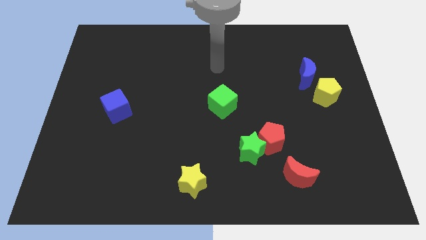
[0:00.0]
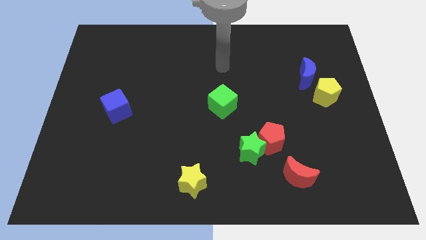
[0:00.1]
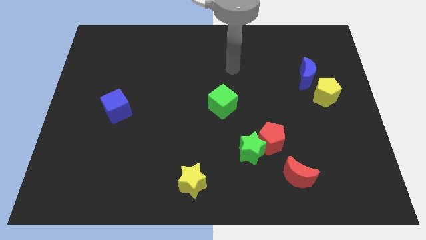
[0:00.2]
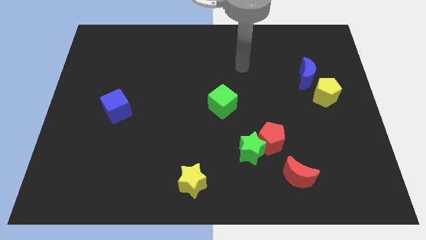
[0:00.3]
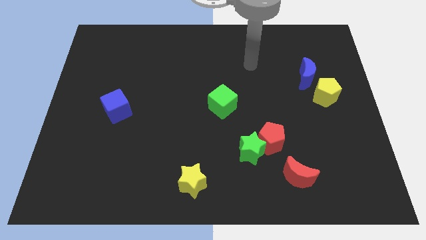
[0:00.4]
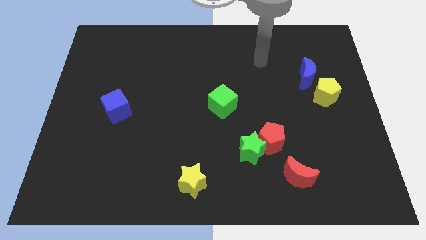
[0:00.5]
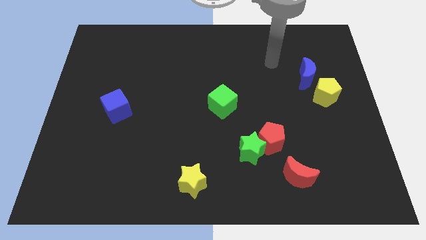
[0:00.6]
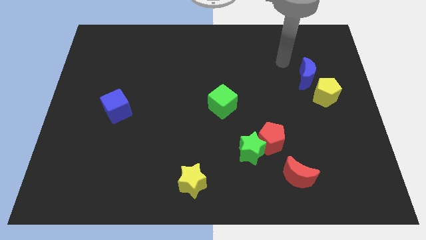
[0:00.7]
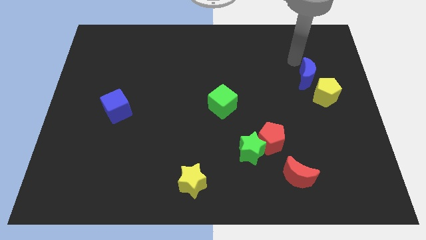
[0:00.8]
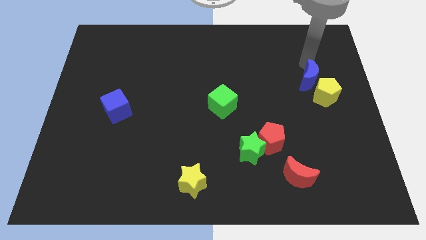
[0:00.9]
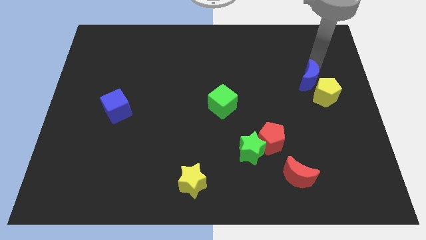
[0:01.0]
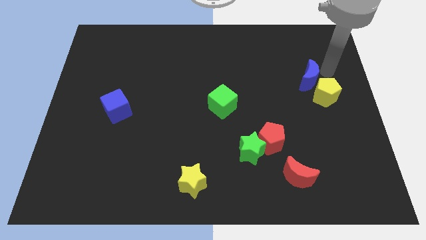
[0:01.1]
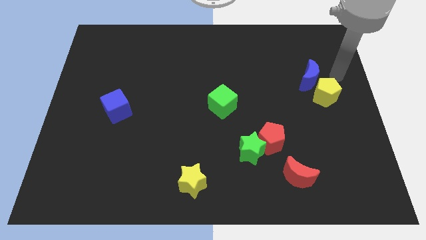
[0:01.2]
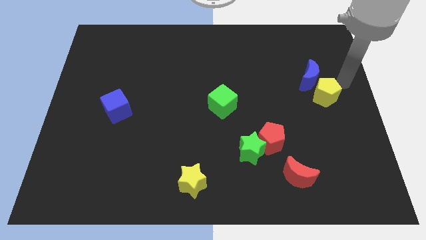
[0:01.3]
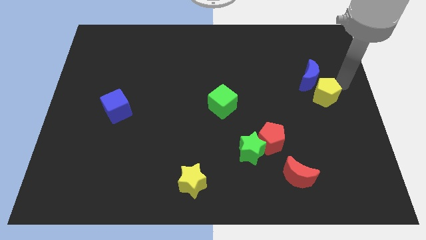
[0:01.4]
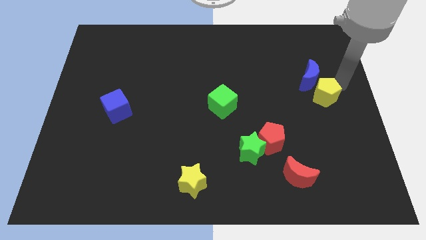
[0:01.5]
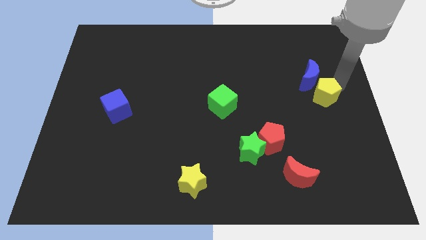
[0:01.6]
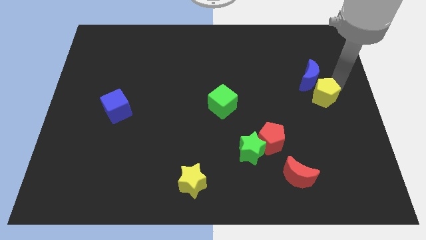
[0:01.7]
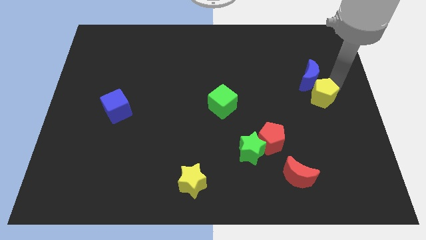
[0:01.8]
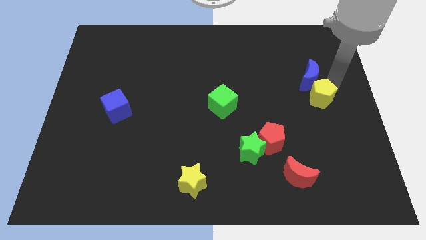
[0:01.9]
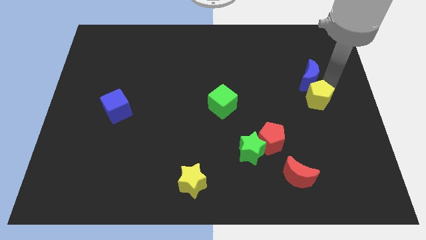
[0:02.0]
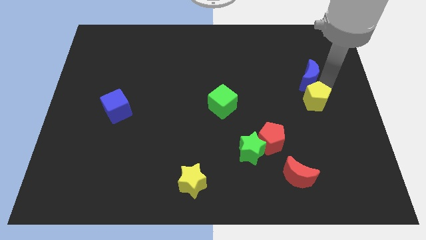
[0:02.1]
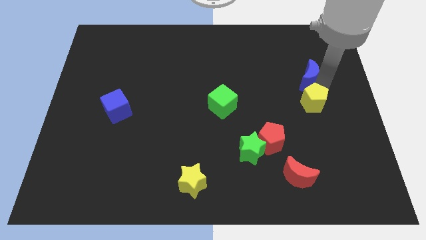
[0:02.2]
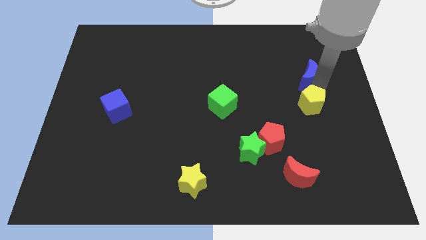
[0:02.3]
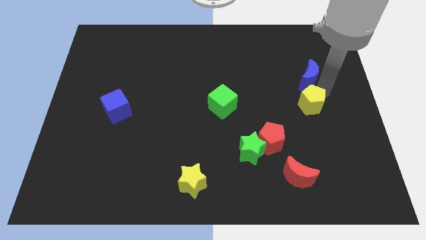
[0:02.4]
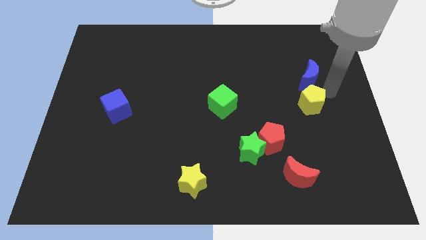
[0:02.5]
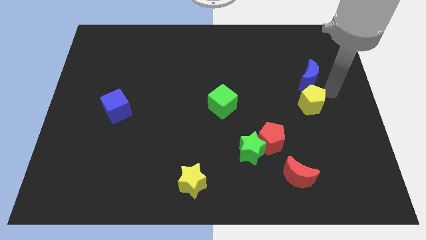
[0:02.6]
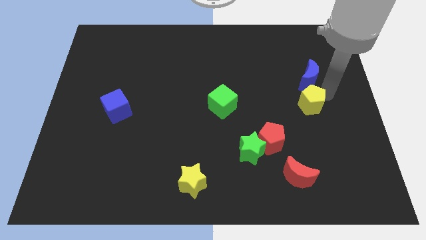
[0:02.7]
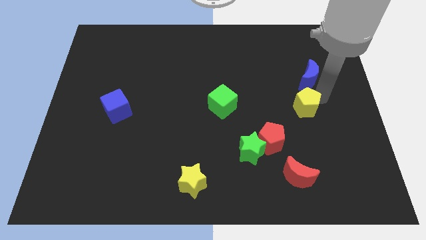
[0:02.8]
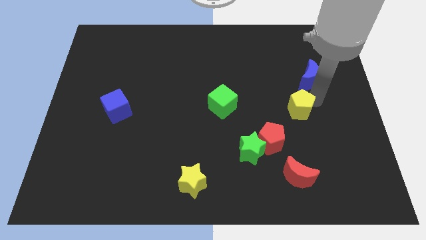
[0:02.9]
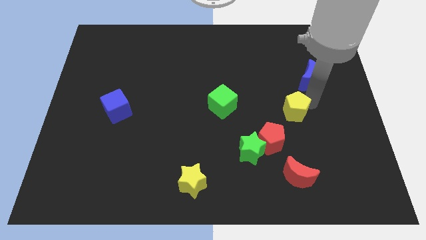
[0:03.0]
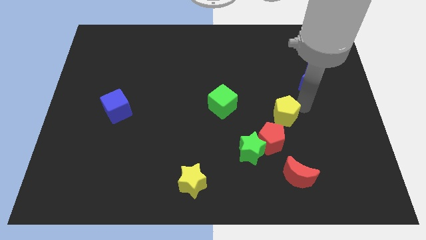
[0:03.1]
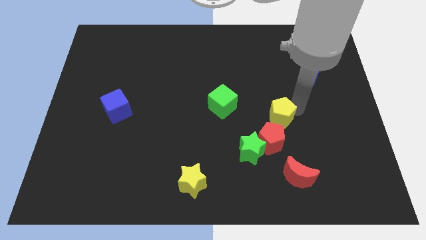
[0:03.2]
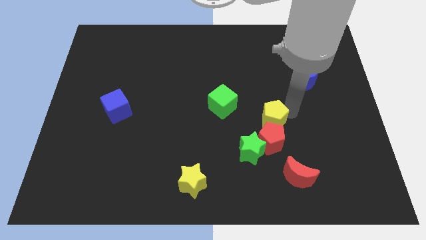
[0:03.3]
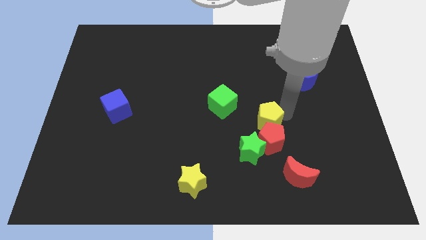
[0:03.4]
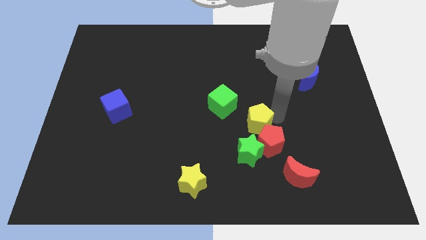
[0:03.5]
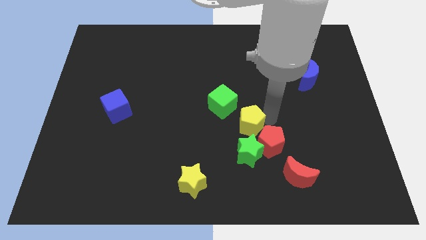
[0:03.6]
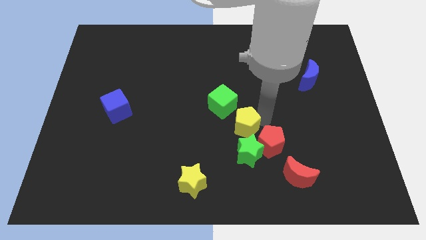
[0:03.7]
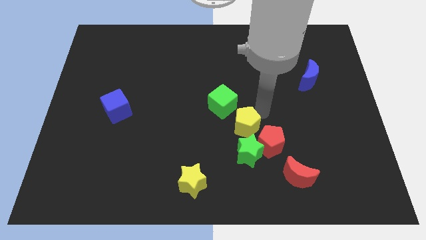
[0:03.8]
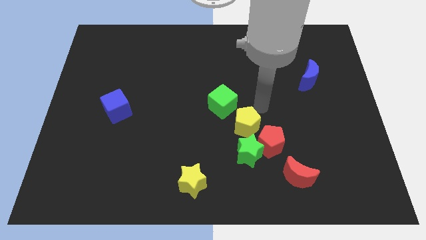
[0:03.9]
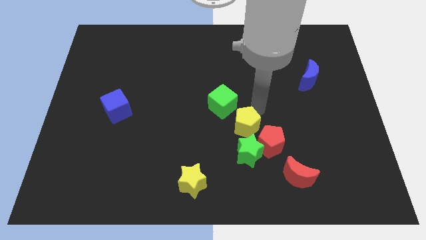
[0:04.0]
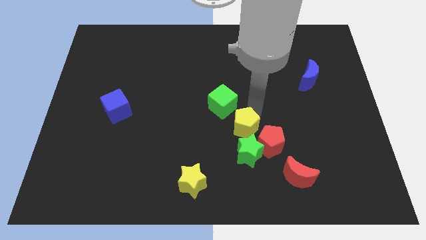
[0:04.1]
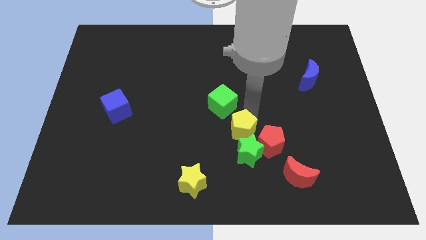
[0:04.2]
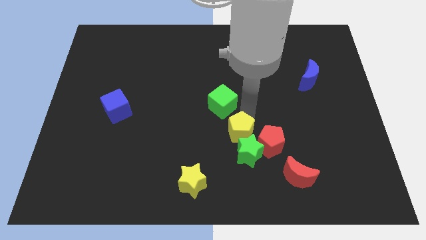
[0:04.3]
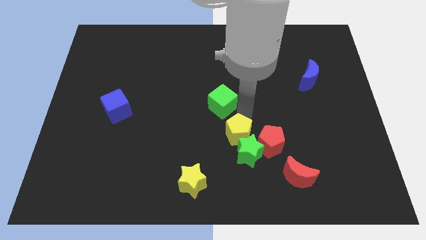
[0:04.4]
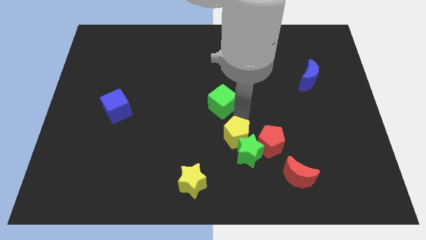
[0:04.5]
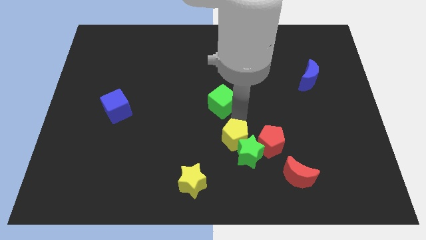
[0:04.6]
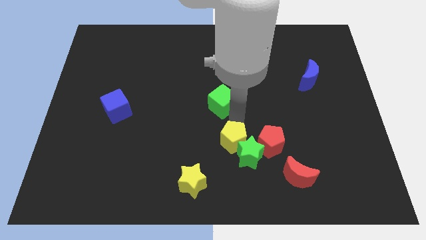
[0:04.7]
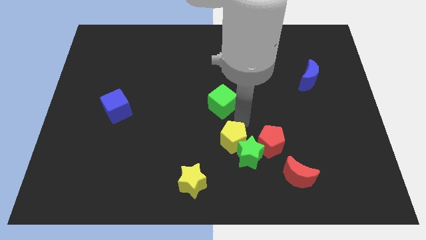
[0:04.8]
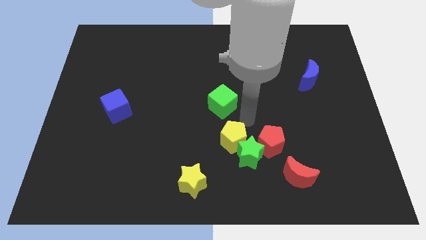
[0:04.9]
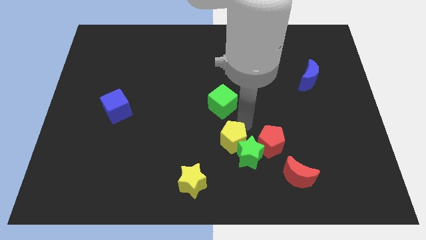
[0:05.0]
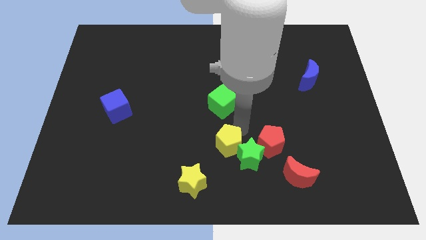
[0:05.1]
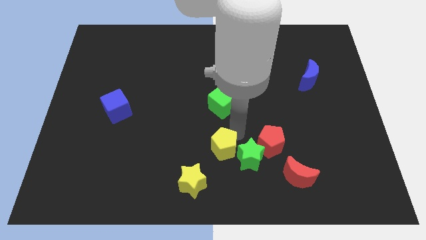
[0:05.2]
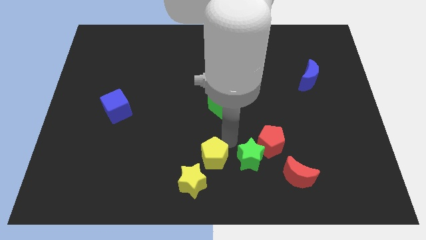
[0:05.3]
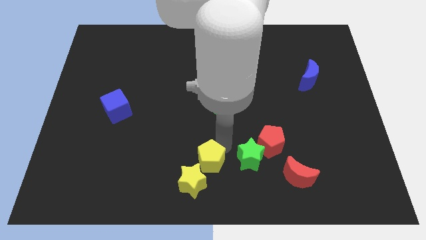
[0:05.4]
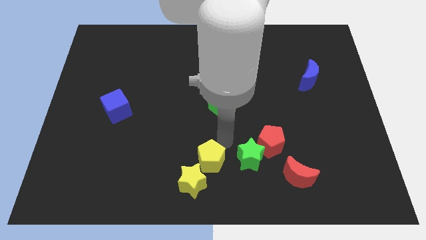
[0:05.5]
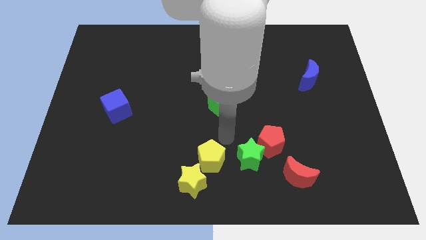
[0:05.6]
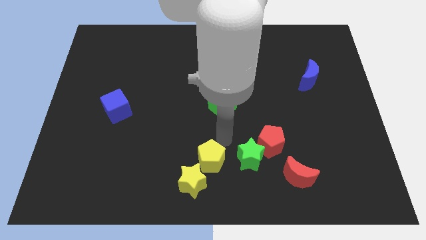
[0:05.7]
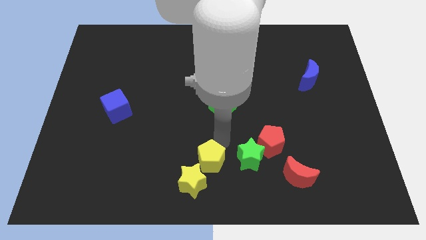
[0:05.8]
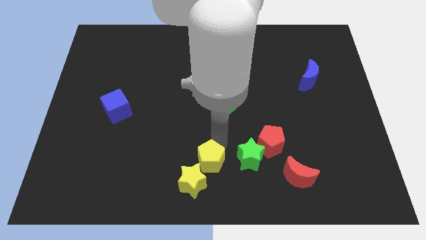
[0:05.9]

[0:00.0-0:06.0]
move the yellow pentagon next to the yellow star

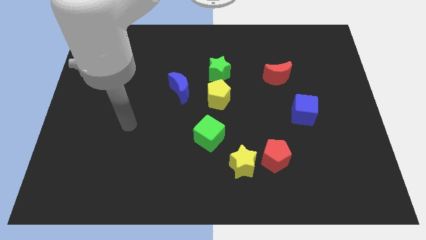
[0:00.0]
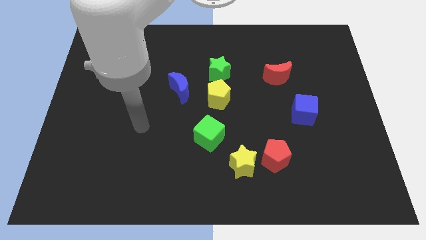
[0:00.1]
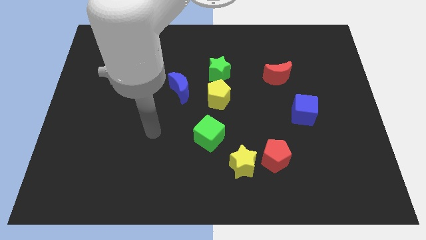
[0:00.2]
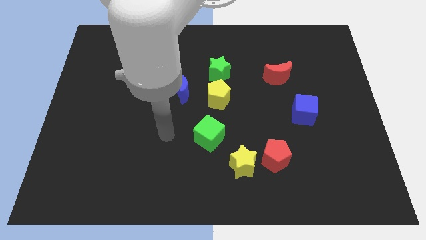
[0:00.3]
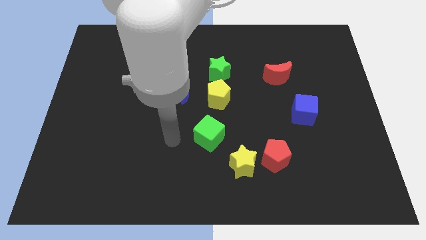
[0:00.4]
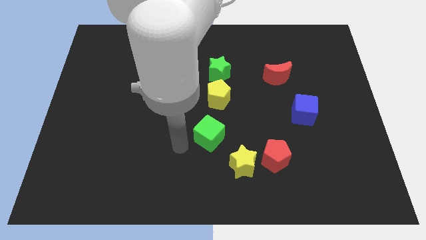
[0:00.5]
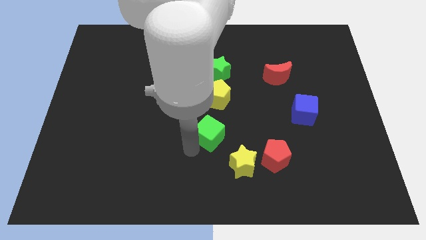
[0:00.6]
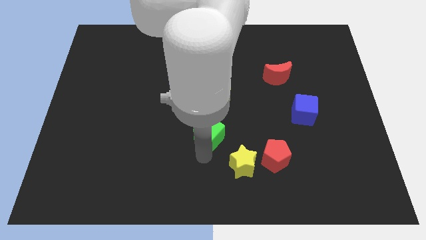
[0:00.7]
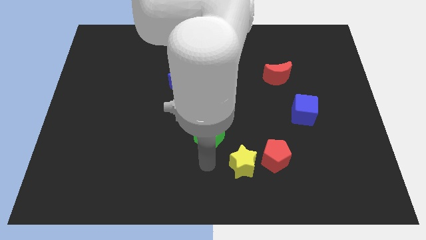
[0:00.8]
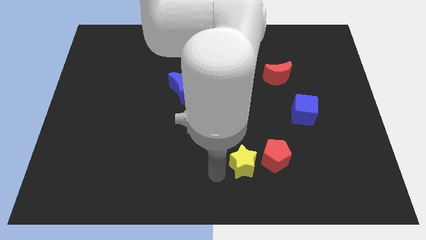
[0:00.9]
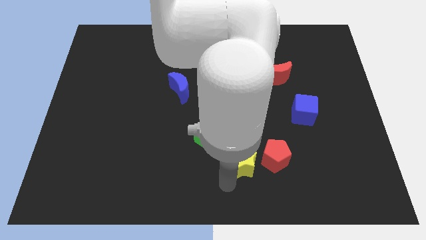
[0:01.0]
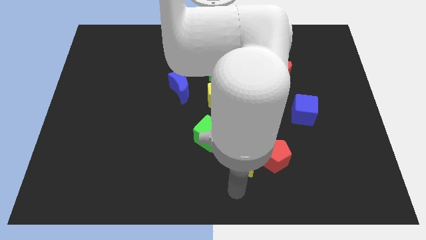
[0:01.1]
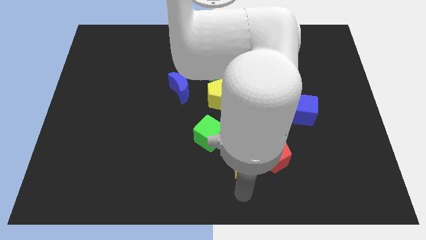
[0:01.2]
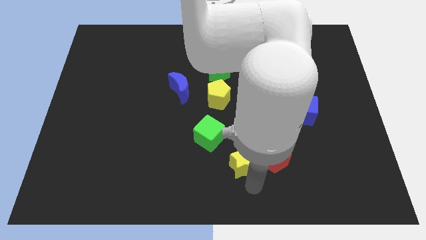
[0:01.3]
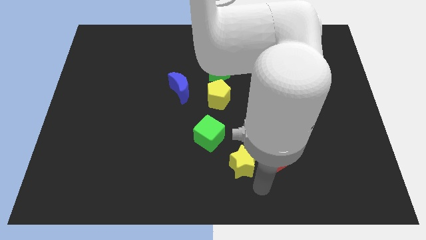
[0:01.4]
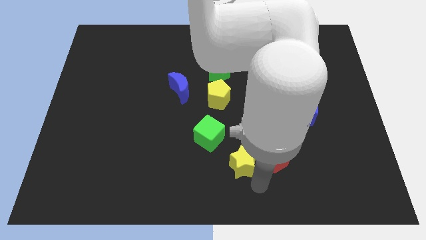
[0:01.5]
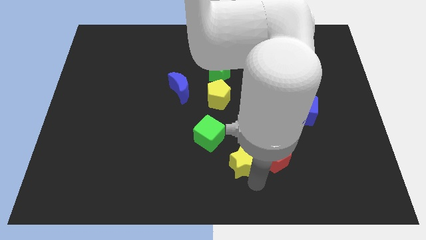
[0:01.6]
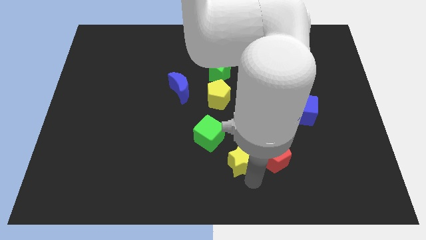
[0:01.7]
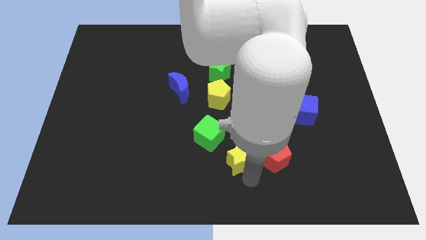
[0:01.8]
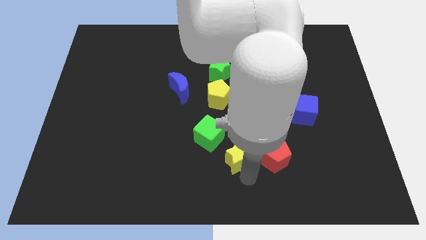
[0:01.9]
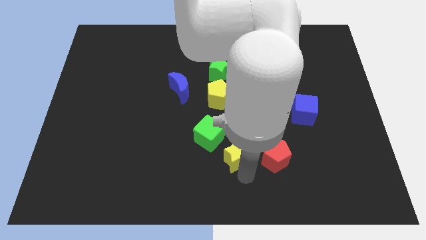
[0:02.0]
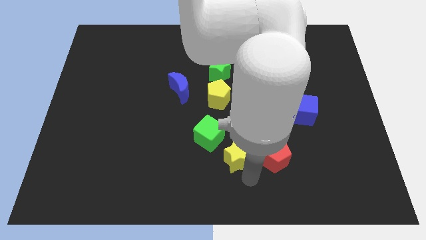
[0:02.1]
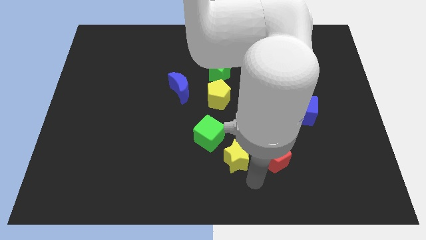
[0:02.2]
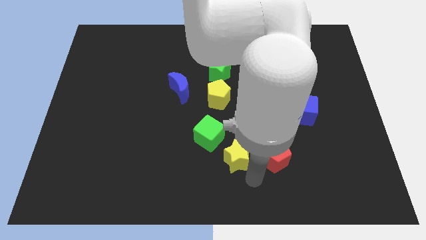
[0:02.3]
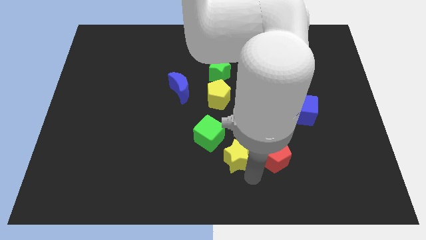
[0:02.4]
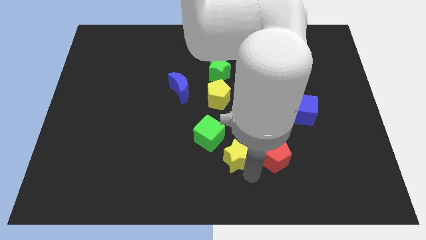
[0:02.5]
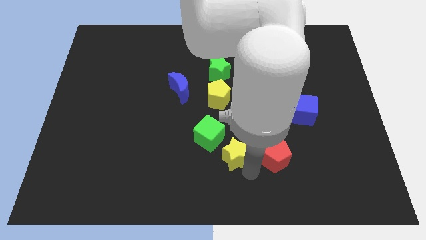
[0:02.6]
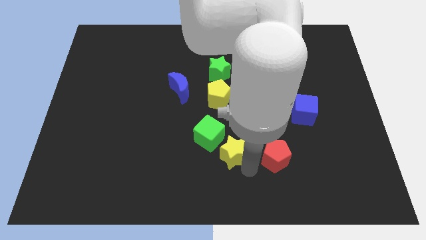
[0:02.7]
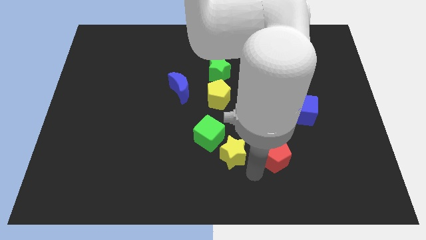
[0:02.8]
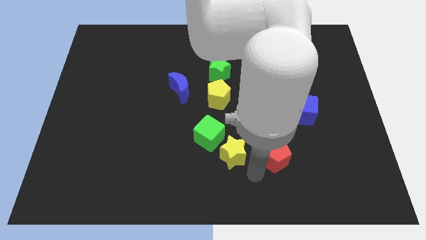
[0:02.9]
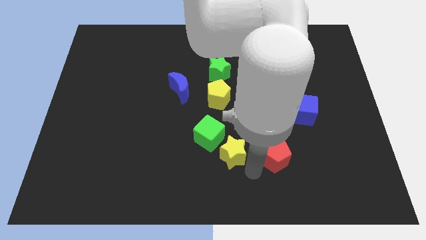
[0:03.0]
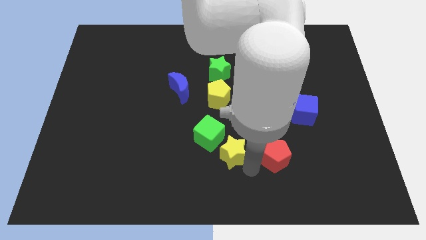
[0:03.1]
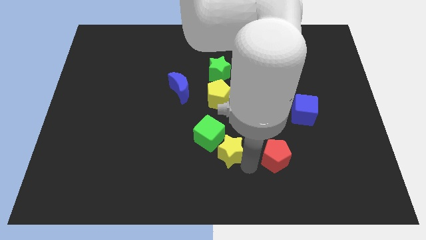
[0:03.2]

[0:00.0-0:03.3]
slide the yellow star next to the green cube
